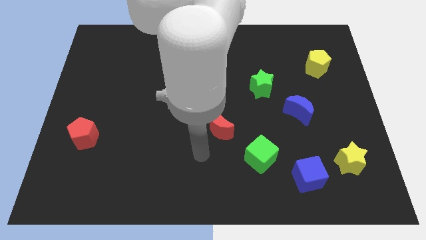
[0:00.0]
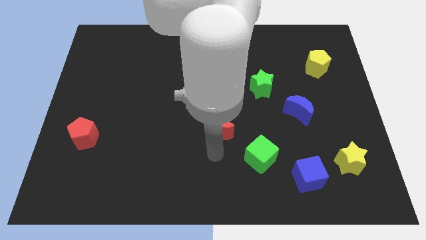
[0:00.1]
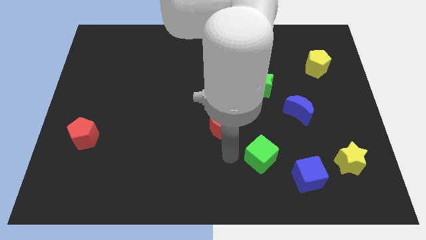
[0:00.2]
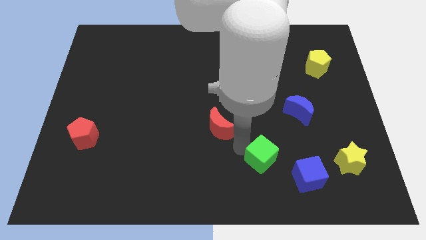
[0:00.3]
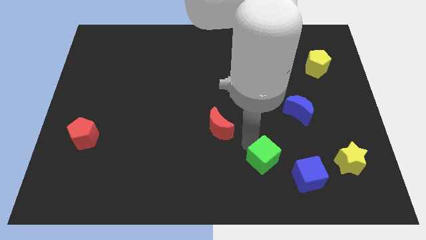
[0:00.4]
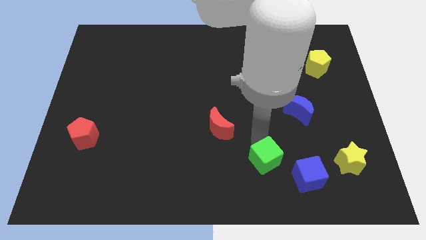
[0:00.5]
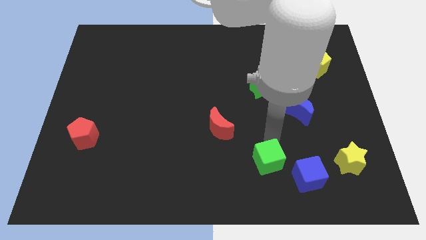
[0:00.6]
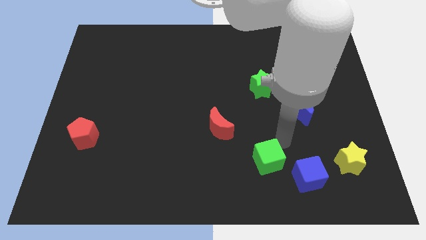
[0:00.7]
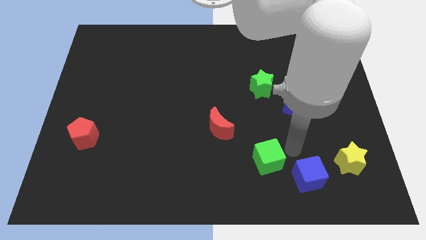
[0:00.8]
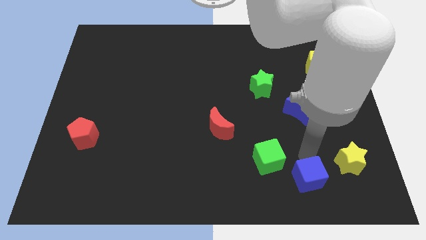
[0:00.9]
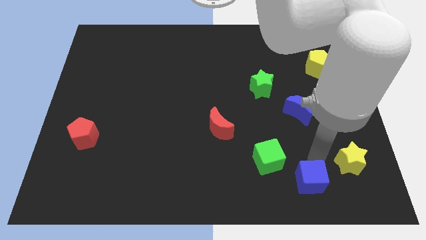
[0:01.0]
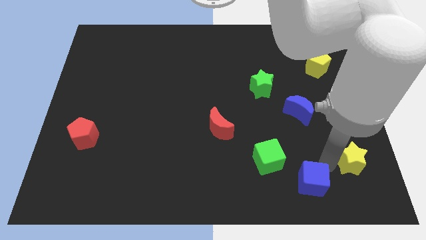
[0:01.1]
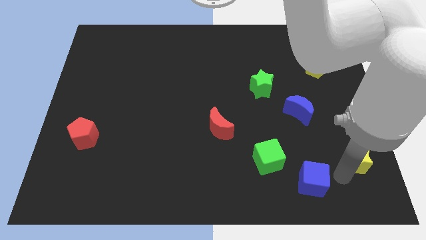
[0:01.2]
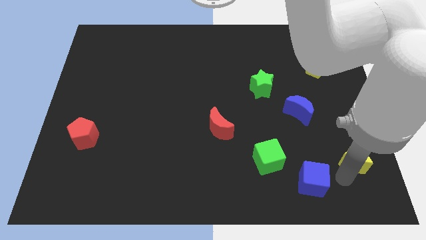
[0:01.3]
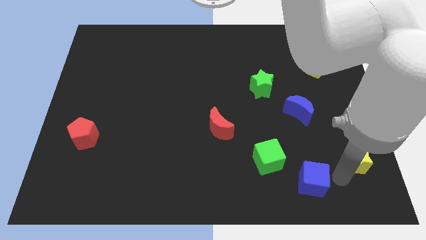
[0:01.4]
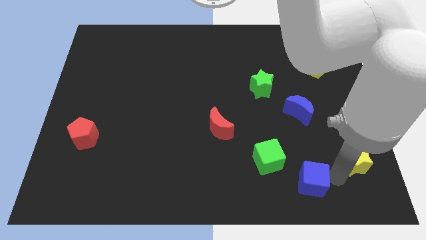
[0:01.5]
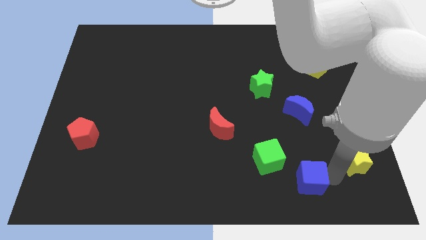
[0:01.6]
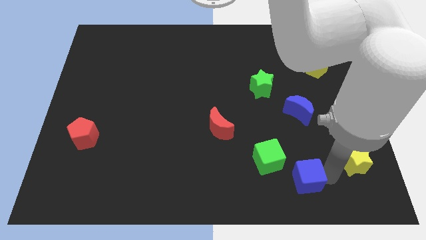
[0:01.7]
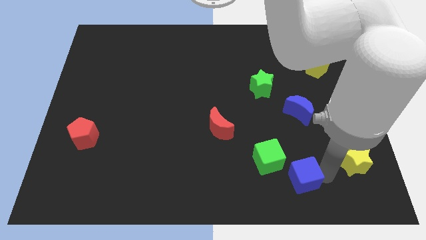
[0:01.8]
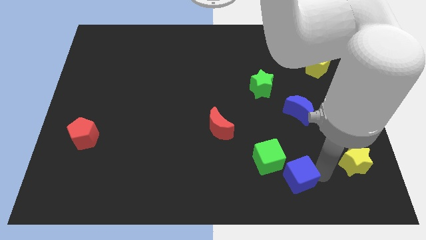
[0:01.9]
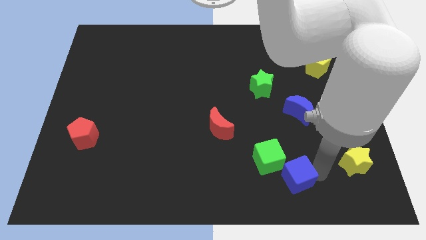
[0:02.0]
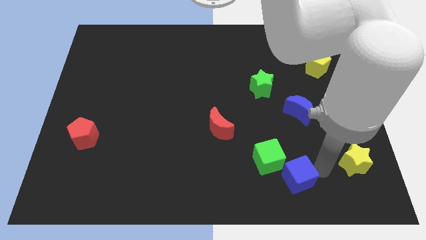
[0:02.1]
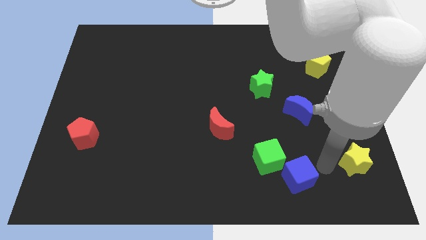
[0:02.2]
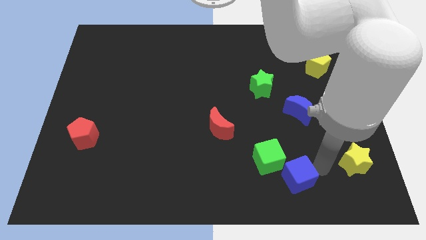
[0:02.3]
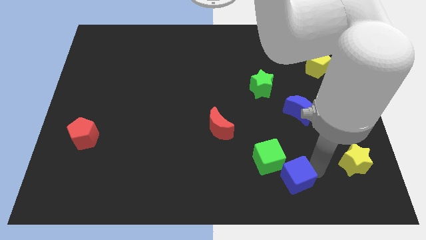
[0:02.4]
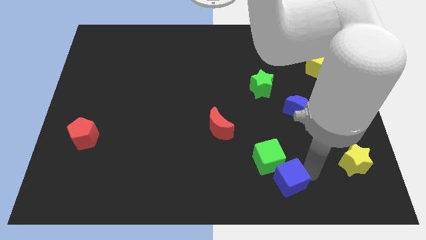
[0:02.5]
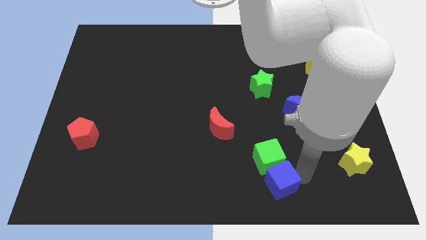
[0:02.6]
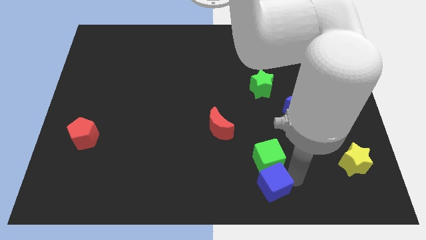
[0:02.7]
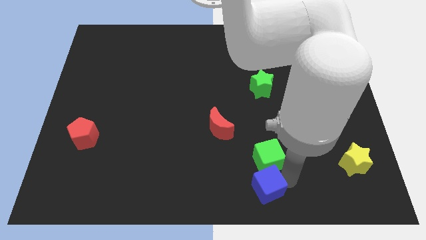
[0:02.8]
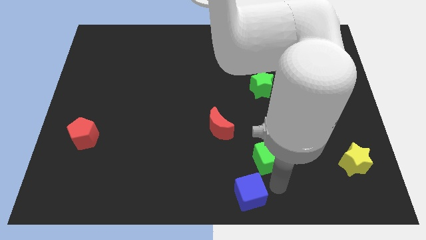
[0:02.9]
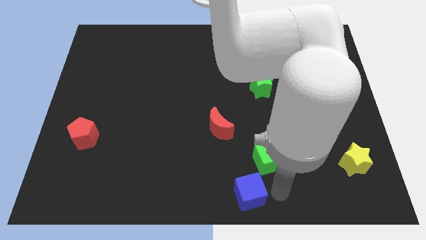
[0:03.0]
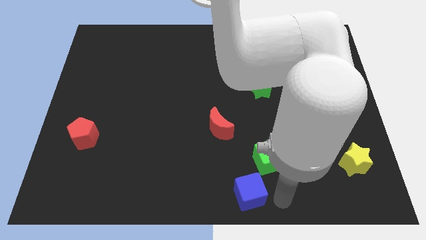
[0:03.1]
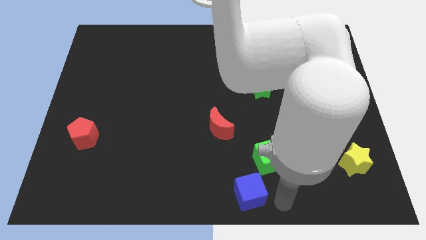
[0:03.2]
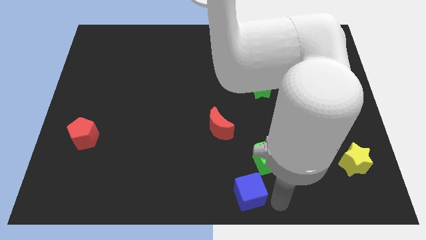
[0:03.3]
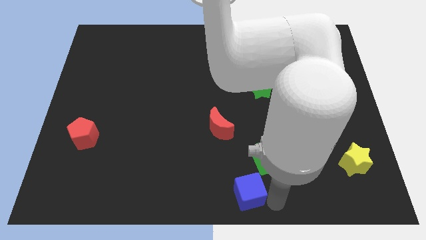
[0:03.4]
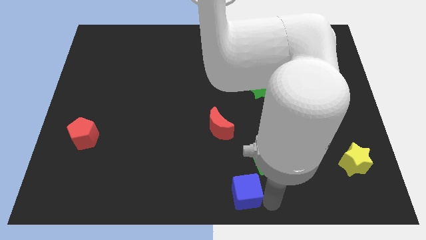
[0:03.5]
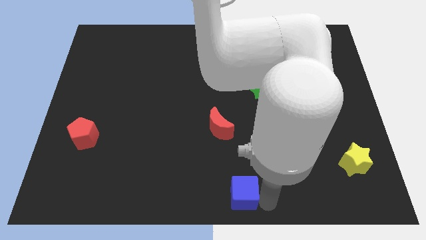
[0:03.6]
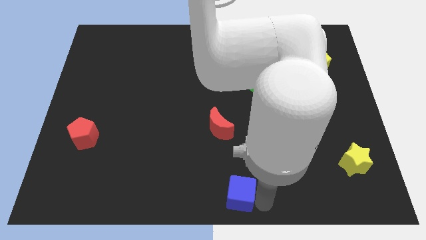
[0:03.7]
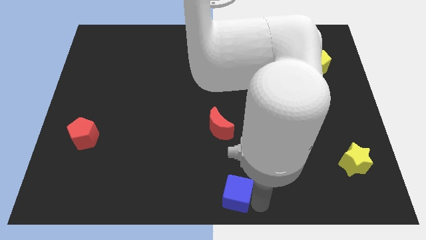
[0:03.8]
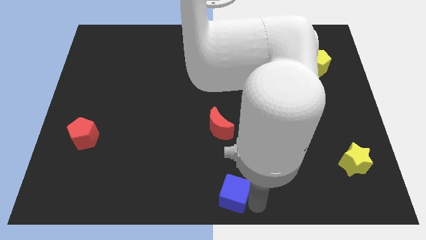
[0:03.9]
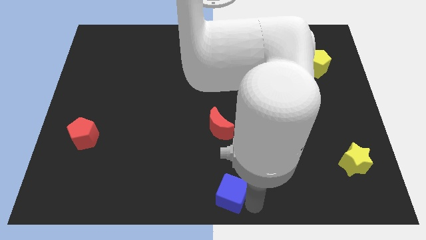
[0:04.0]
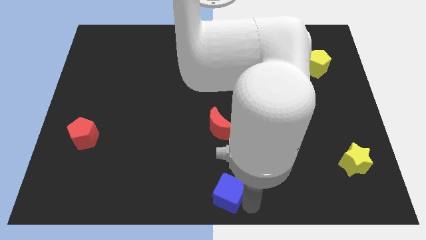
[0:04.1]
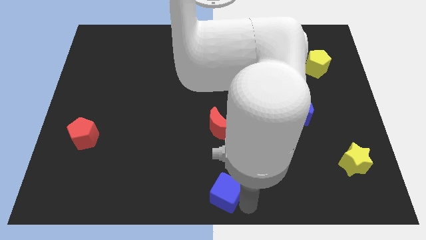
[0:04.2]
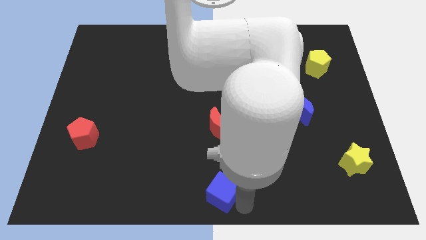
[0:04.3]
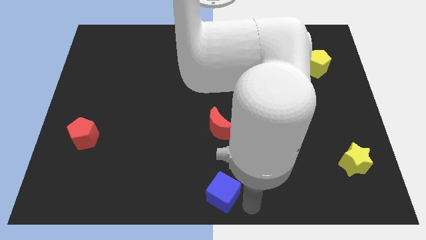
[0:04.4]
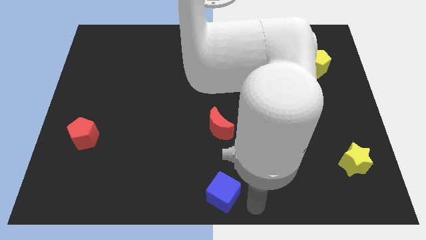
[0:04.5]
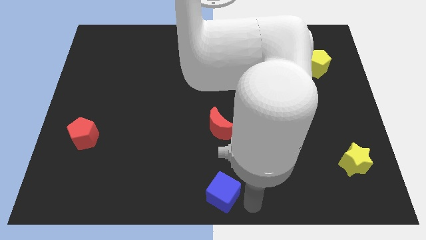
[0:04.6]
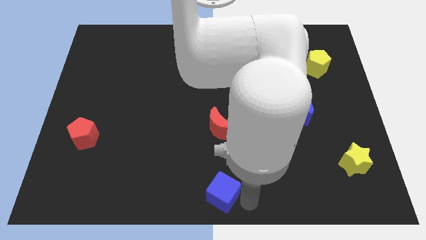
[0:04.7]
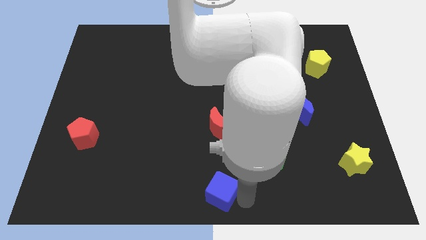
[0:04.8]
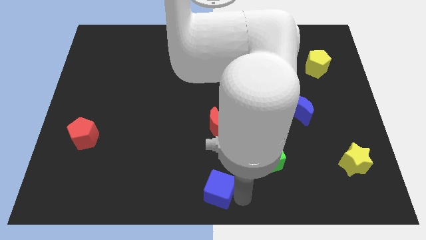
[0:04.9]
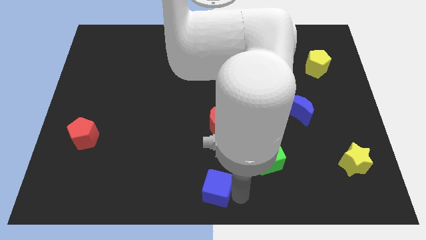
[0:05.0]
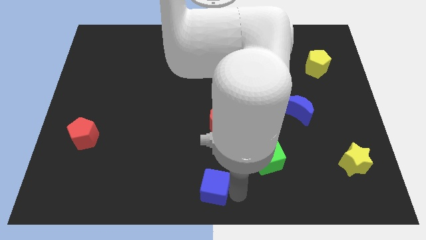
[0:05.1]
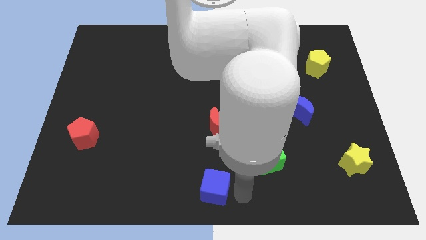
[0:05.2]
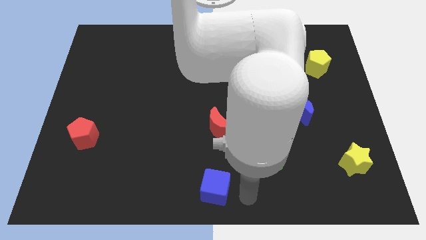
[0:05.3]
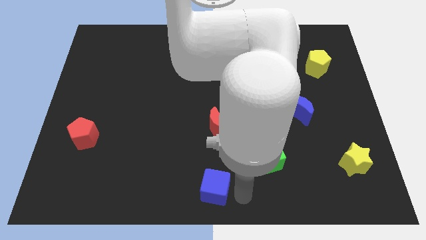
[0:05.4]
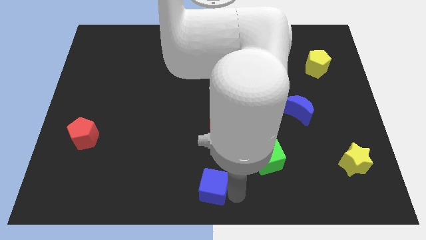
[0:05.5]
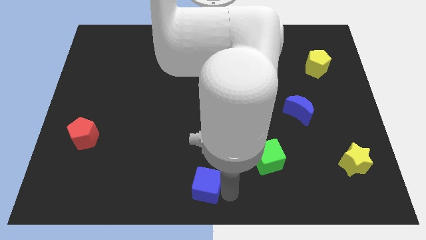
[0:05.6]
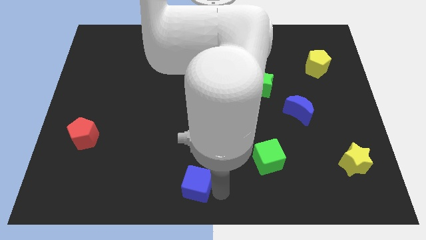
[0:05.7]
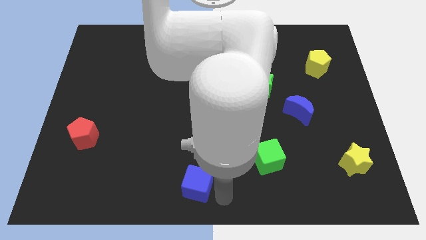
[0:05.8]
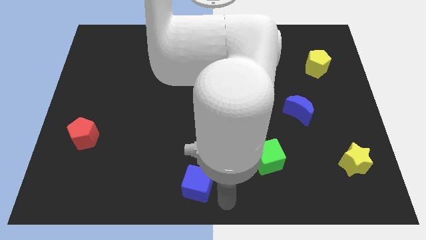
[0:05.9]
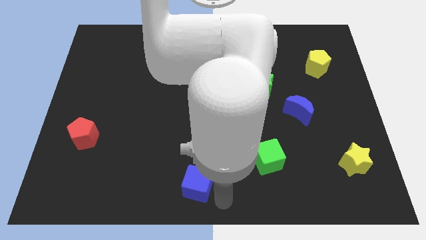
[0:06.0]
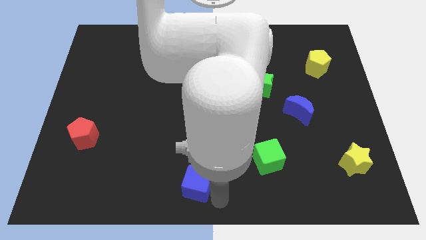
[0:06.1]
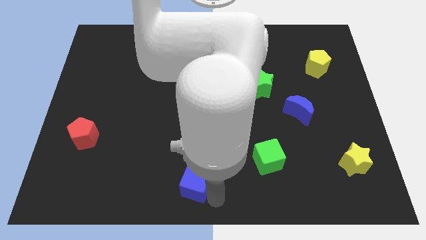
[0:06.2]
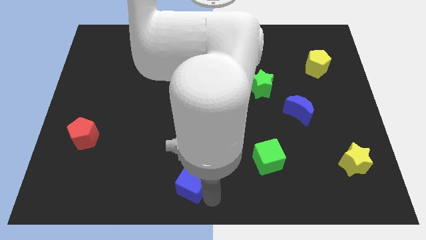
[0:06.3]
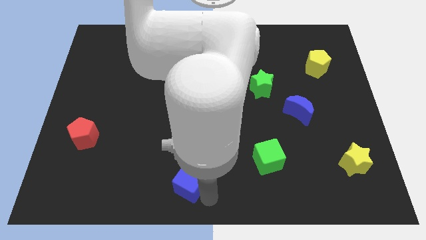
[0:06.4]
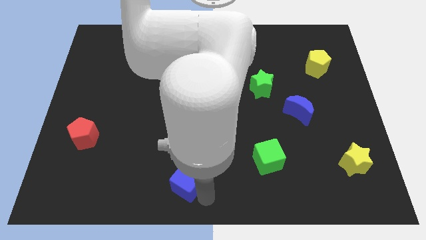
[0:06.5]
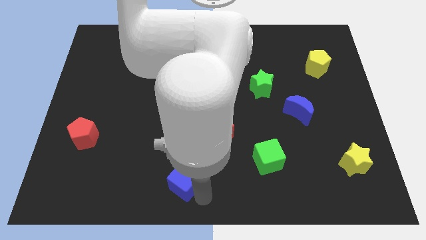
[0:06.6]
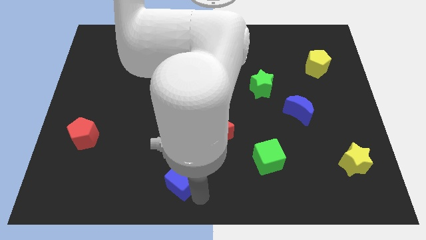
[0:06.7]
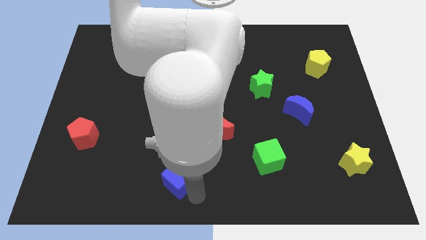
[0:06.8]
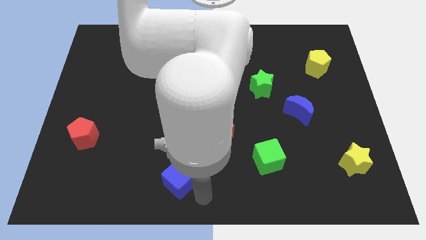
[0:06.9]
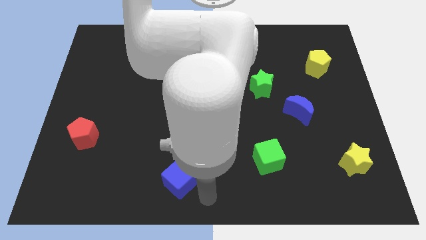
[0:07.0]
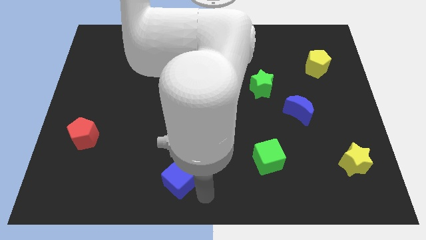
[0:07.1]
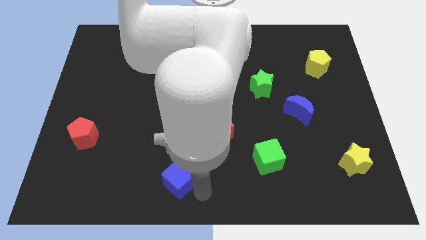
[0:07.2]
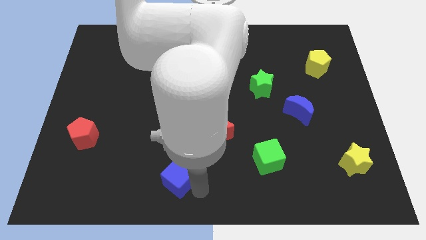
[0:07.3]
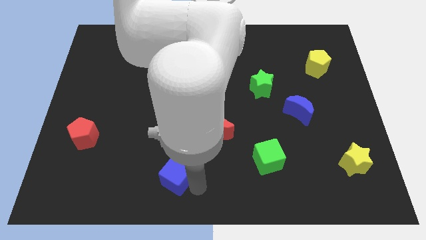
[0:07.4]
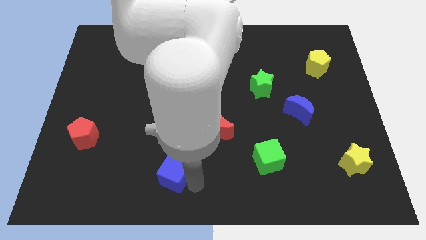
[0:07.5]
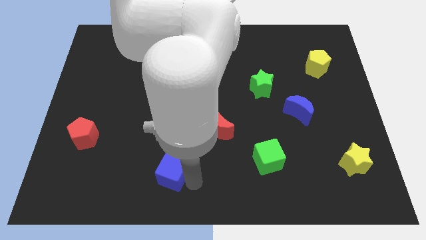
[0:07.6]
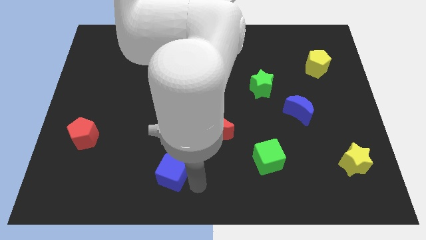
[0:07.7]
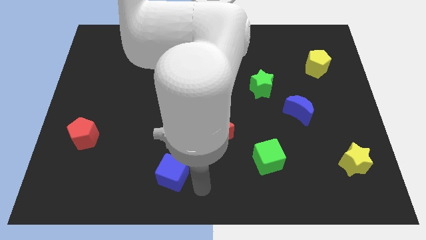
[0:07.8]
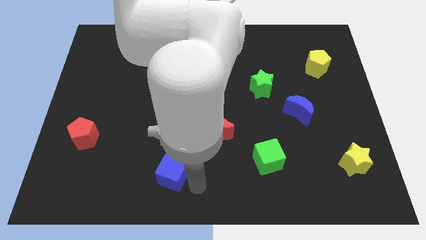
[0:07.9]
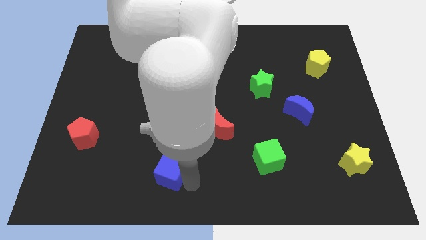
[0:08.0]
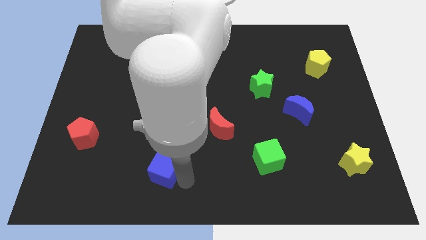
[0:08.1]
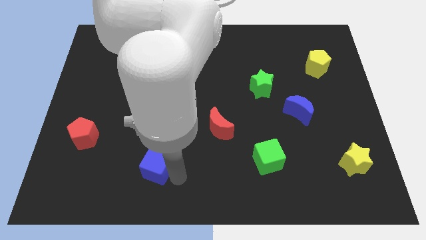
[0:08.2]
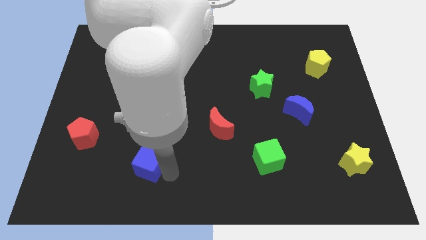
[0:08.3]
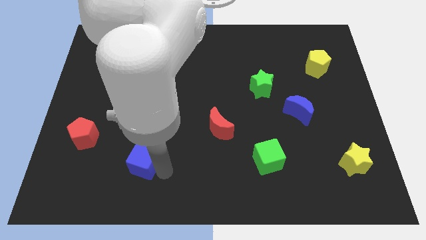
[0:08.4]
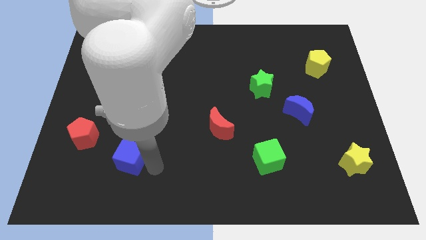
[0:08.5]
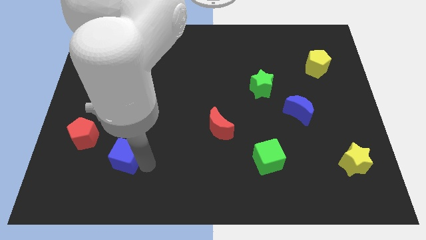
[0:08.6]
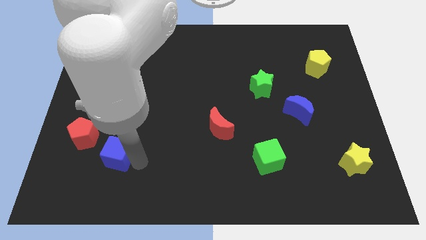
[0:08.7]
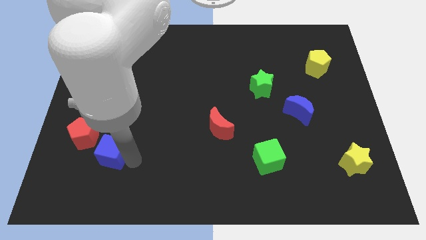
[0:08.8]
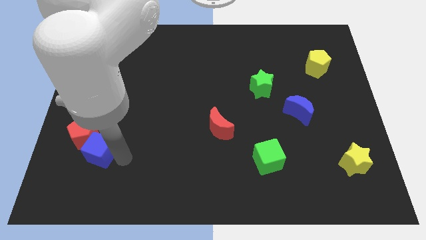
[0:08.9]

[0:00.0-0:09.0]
slide the blue cube close to the red pentagon
